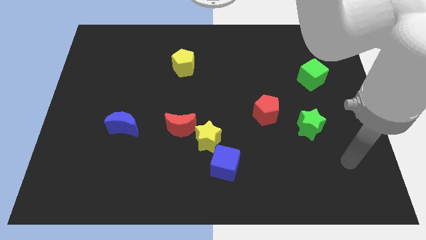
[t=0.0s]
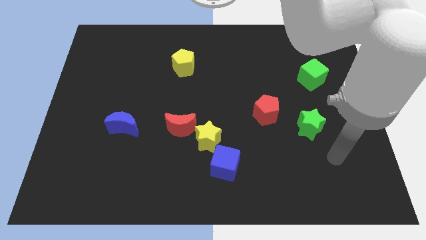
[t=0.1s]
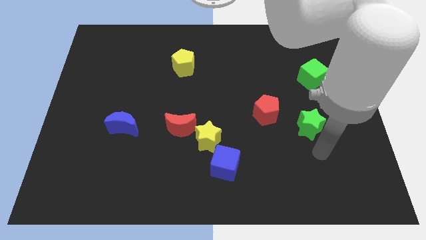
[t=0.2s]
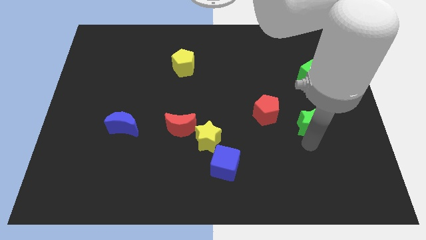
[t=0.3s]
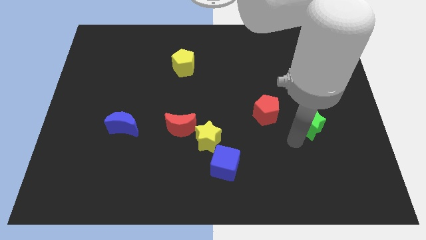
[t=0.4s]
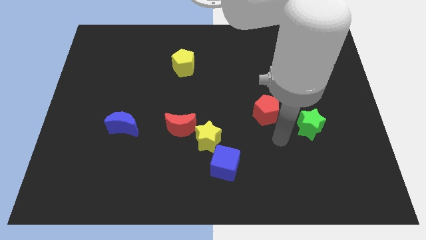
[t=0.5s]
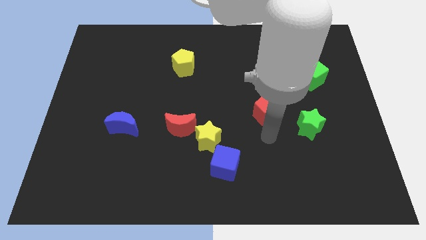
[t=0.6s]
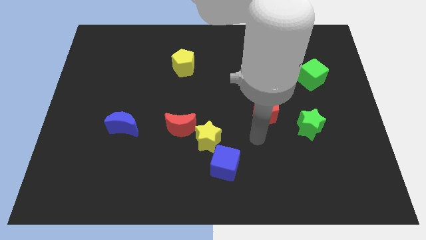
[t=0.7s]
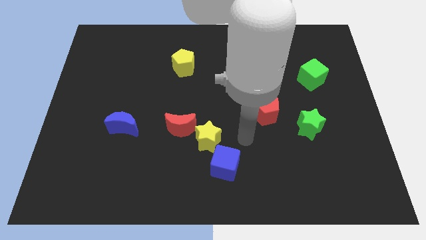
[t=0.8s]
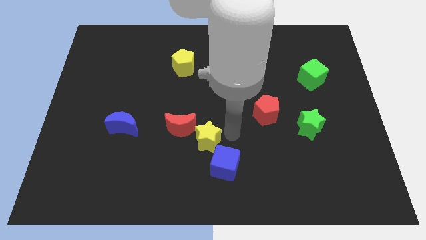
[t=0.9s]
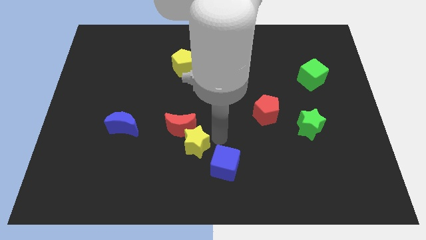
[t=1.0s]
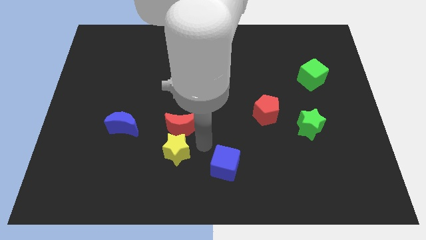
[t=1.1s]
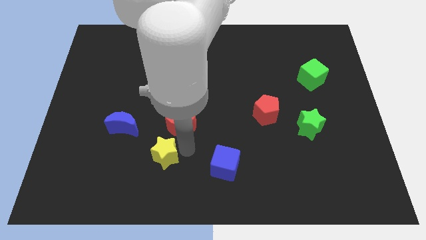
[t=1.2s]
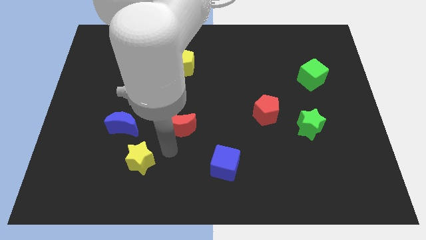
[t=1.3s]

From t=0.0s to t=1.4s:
separate the red moon from the yellow star

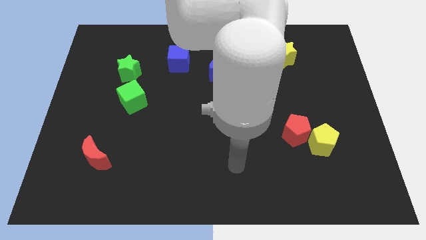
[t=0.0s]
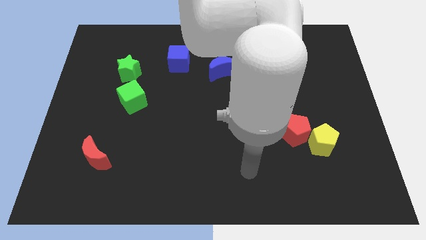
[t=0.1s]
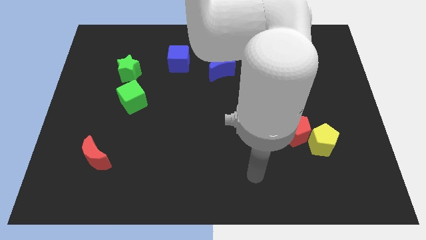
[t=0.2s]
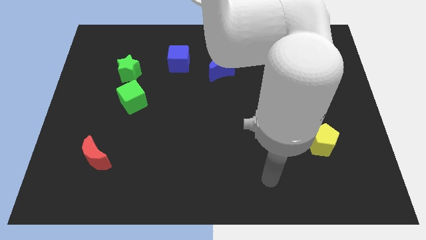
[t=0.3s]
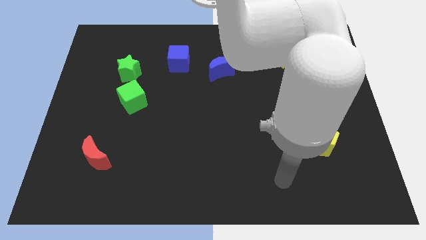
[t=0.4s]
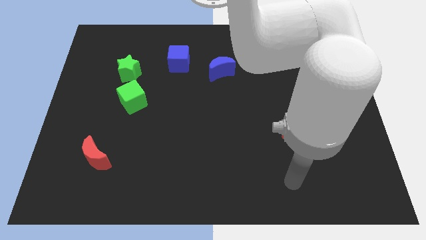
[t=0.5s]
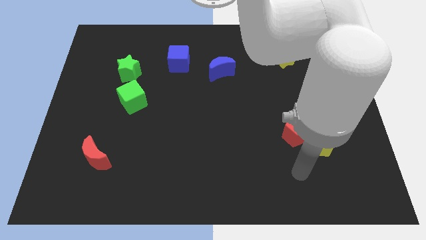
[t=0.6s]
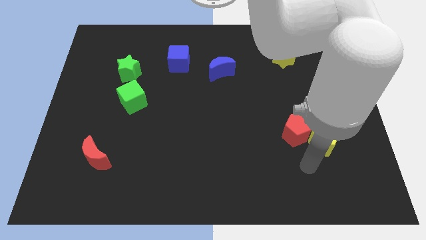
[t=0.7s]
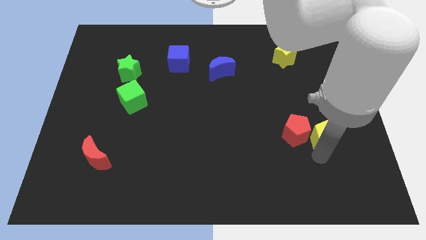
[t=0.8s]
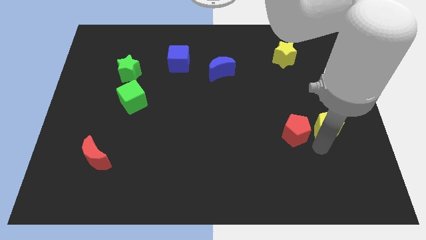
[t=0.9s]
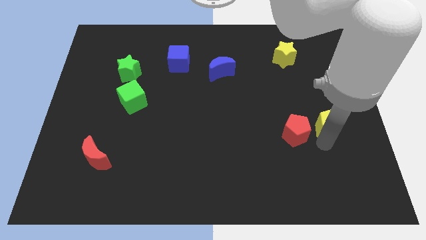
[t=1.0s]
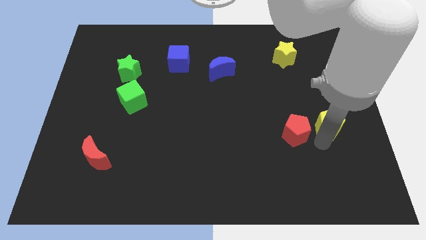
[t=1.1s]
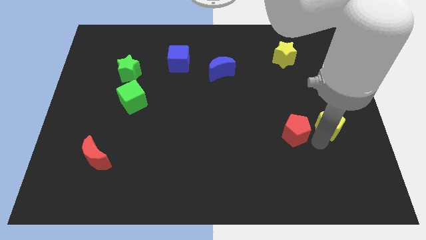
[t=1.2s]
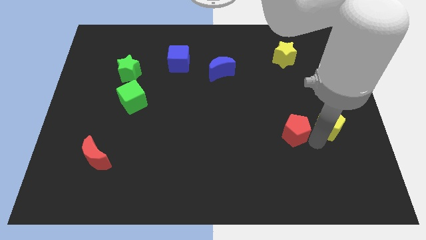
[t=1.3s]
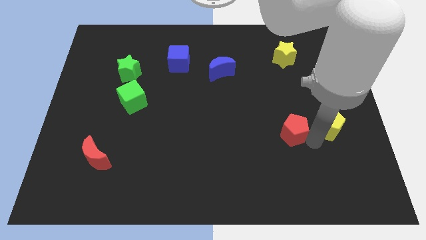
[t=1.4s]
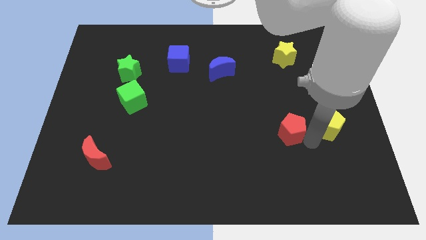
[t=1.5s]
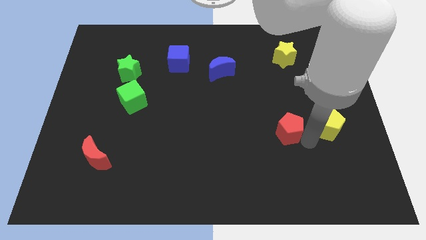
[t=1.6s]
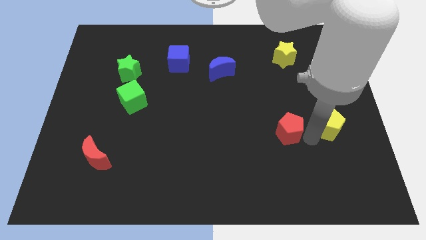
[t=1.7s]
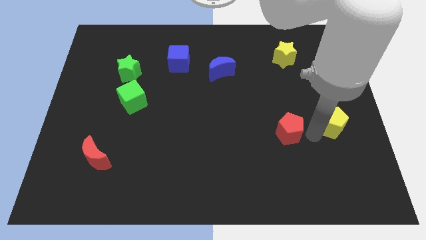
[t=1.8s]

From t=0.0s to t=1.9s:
separate the red pentagon from the yellow pentagon

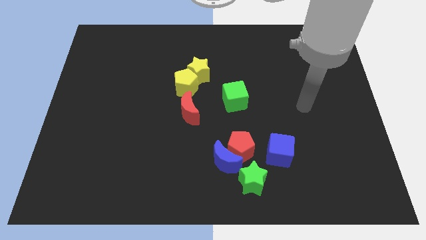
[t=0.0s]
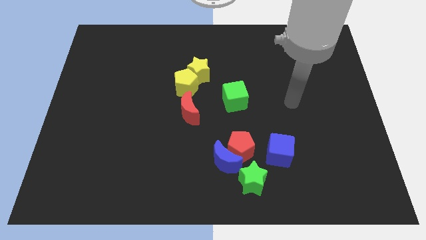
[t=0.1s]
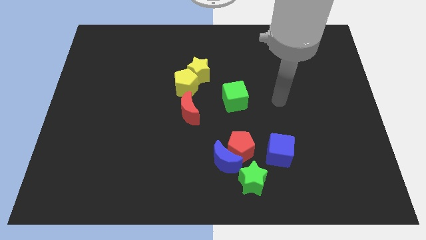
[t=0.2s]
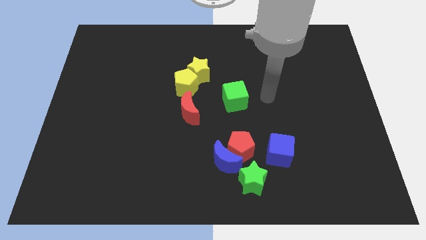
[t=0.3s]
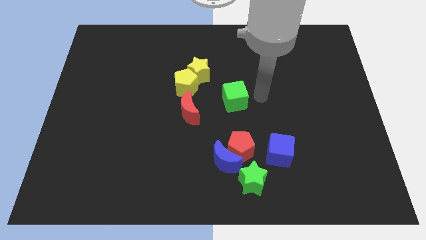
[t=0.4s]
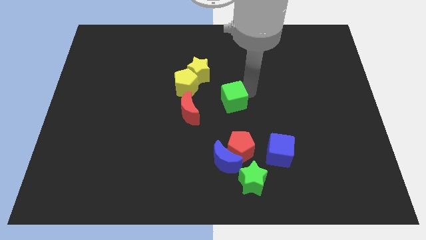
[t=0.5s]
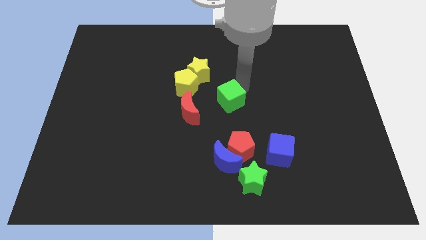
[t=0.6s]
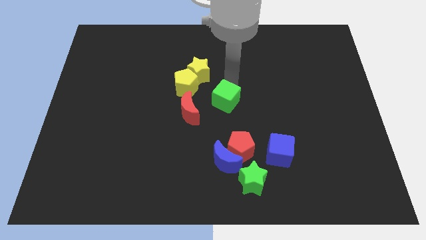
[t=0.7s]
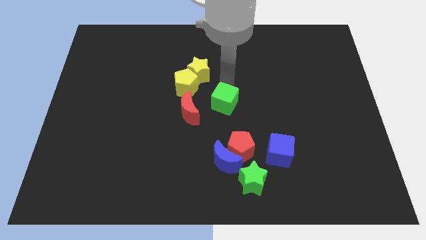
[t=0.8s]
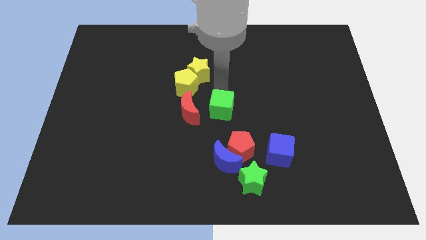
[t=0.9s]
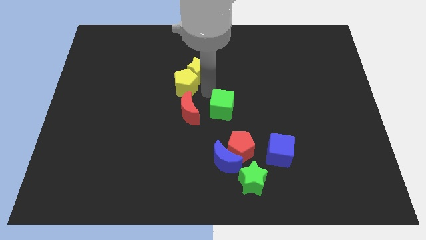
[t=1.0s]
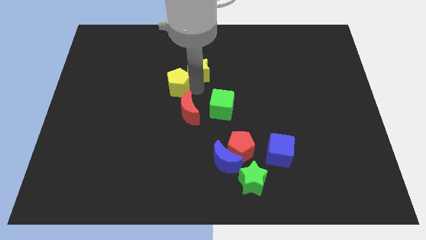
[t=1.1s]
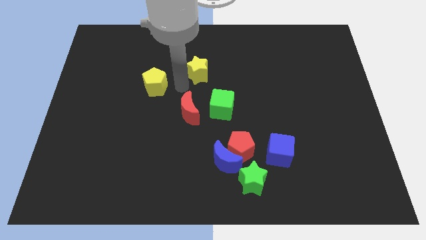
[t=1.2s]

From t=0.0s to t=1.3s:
move the yellow star away from the yellow pentagon

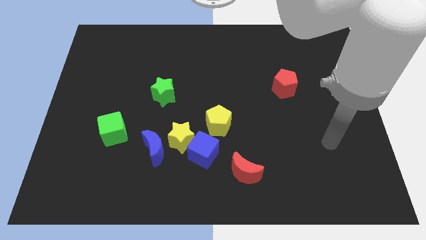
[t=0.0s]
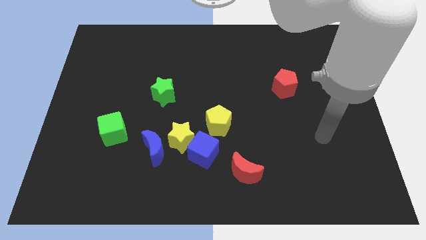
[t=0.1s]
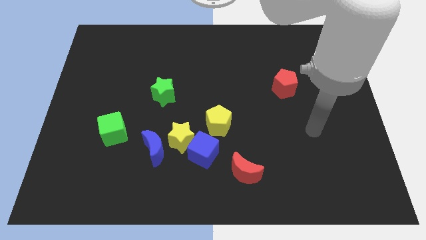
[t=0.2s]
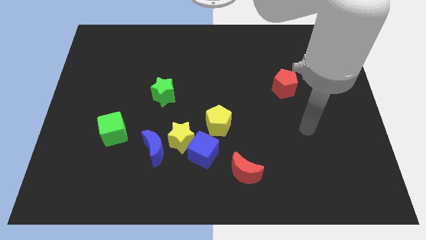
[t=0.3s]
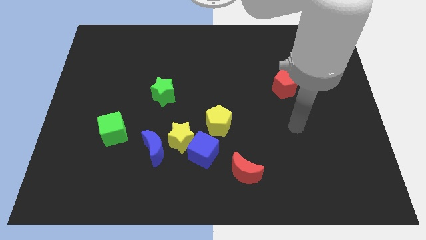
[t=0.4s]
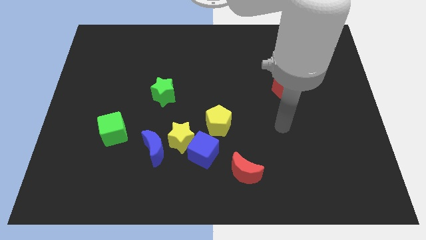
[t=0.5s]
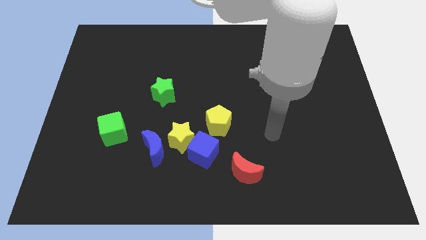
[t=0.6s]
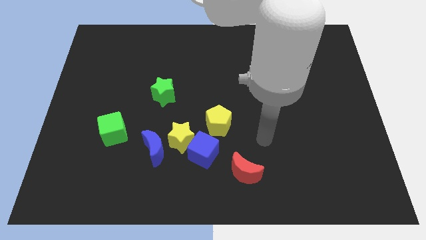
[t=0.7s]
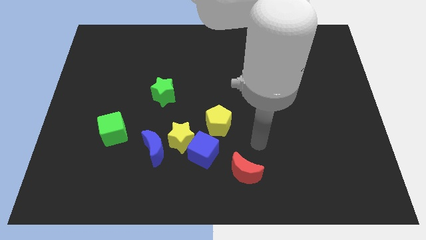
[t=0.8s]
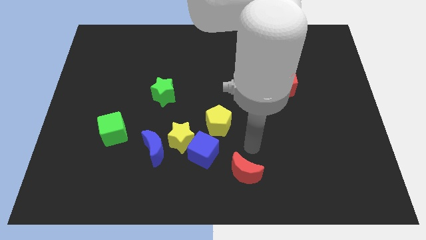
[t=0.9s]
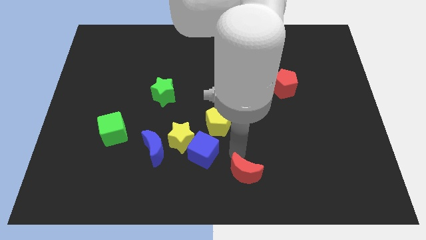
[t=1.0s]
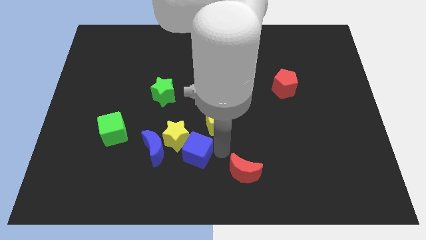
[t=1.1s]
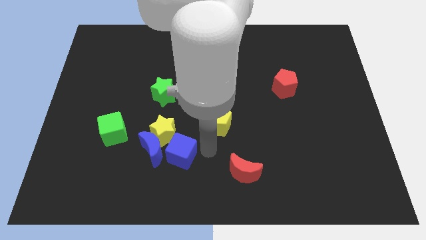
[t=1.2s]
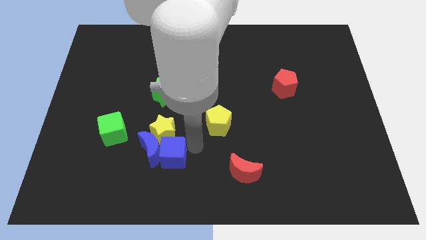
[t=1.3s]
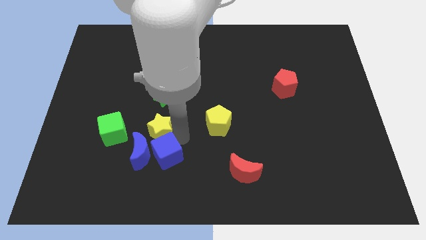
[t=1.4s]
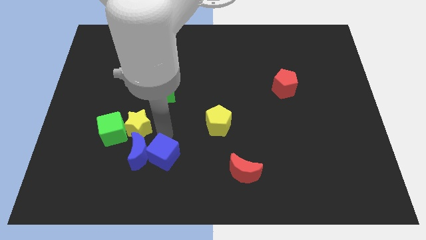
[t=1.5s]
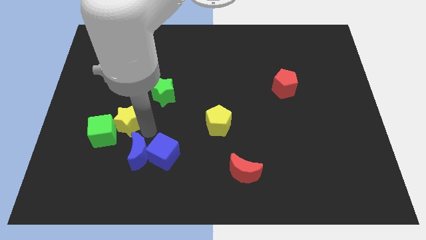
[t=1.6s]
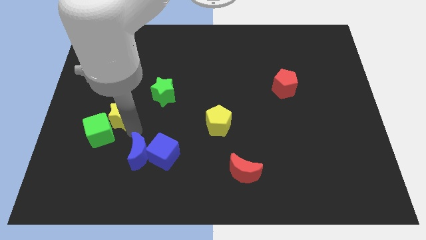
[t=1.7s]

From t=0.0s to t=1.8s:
separate the blue moon from the yellow star

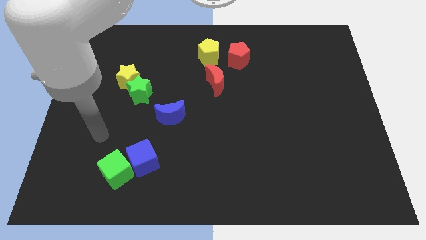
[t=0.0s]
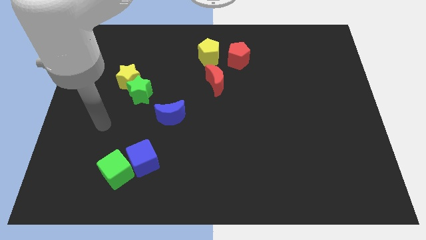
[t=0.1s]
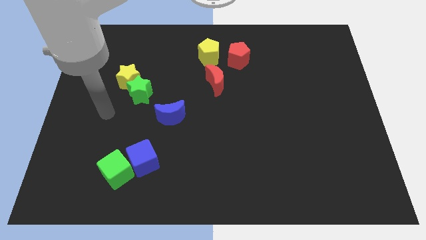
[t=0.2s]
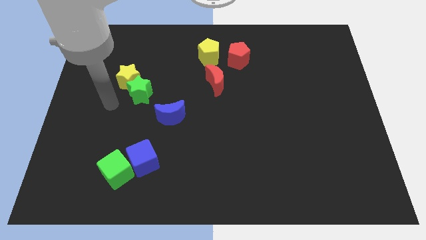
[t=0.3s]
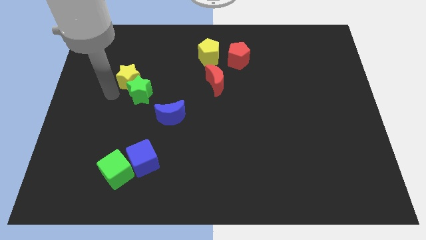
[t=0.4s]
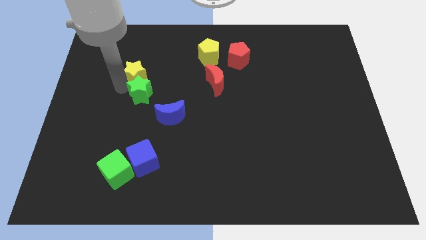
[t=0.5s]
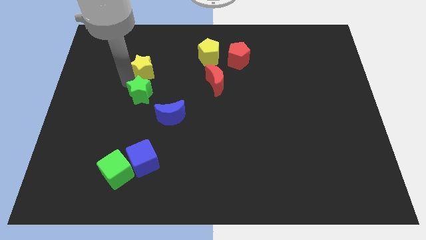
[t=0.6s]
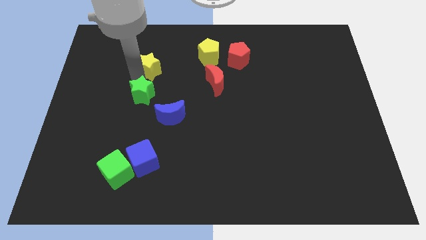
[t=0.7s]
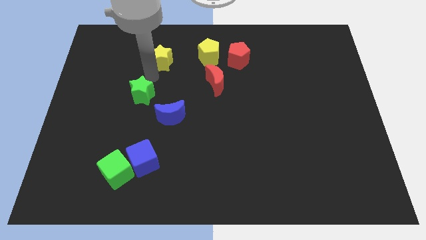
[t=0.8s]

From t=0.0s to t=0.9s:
pull the green star apart from the yellow star

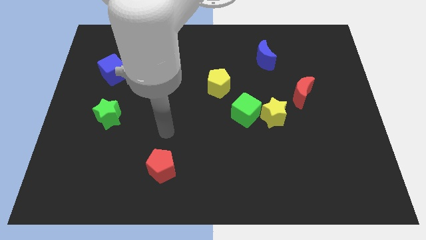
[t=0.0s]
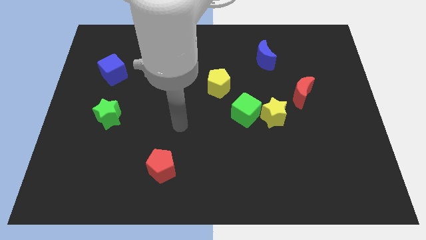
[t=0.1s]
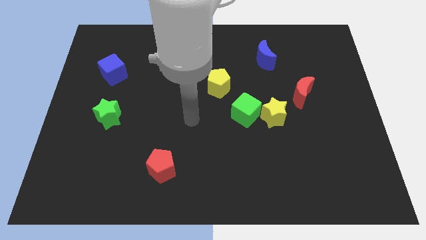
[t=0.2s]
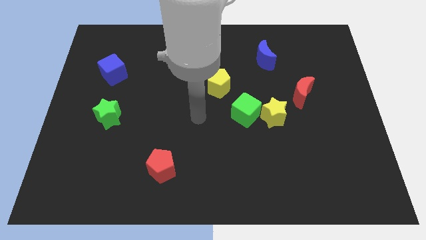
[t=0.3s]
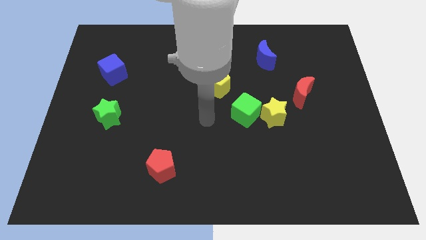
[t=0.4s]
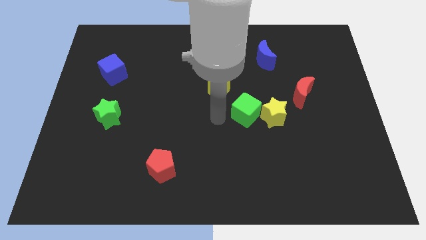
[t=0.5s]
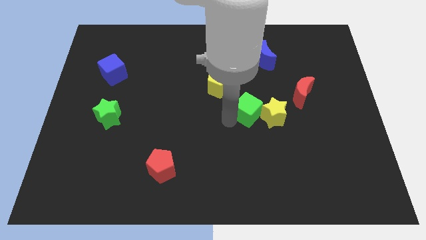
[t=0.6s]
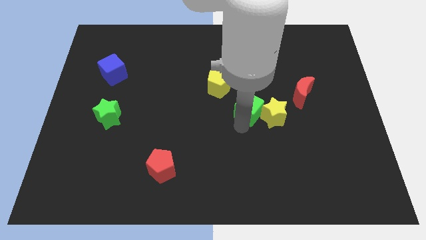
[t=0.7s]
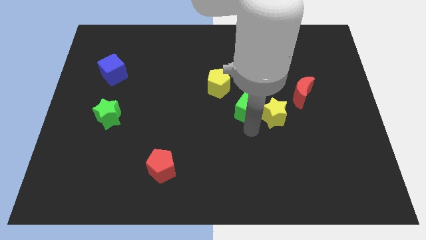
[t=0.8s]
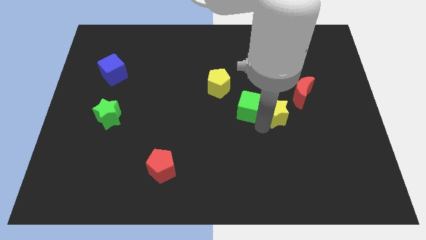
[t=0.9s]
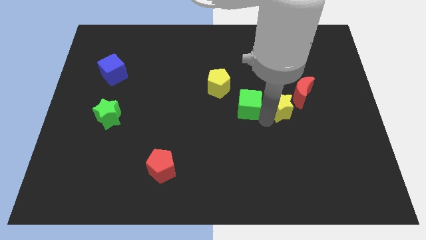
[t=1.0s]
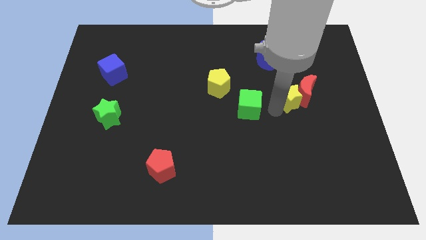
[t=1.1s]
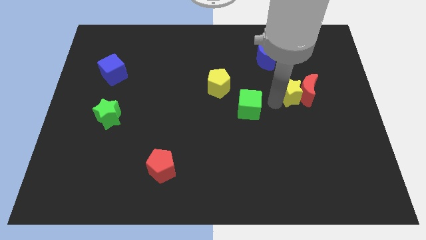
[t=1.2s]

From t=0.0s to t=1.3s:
separate the green cube from the yellow star

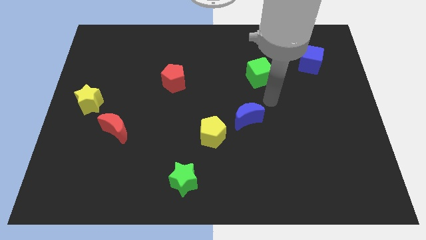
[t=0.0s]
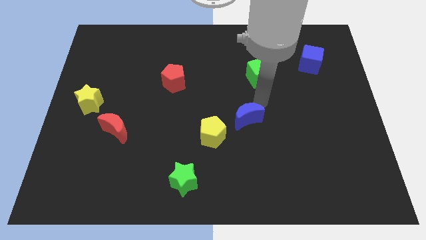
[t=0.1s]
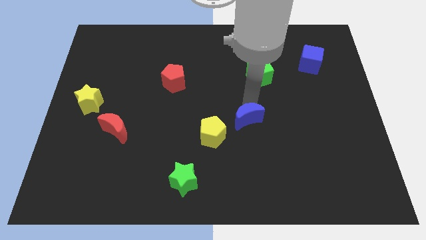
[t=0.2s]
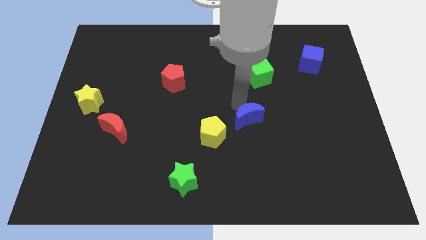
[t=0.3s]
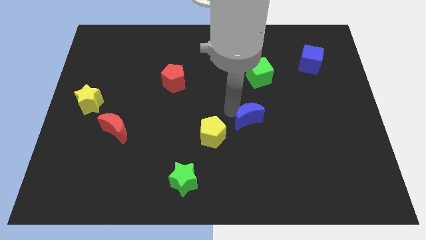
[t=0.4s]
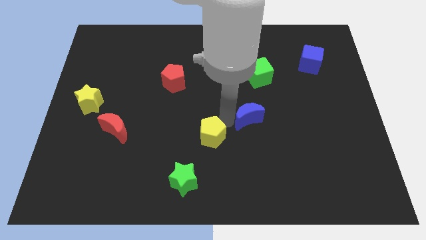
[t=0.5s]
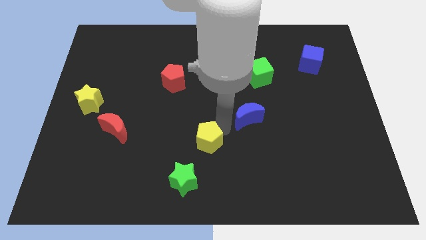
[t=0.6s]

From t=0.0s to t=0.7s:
pull the blue moon apart from the yellow pentagon

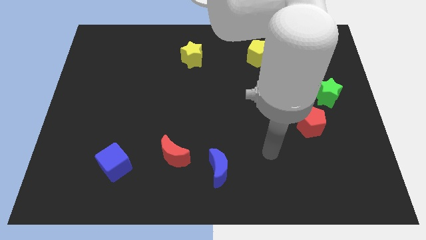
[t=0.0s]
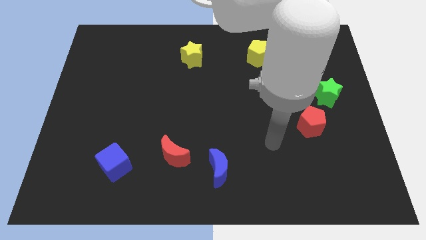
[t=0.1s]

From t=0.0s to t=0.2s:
pull the red pentagon apart from the green star
